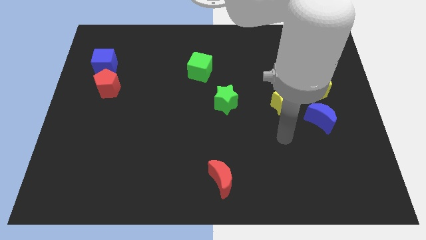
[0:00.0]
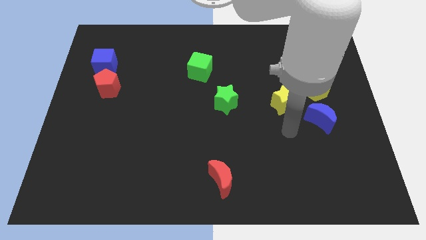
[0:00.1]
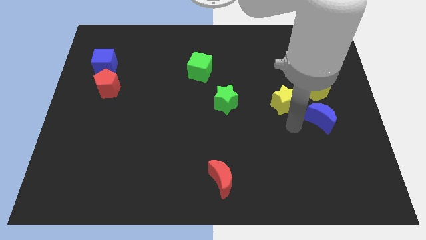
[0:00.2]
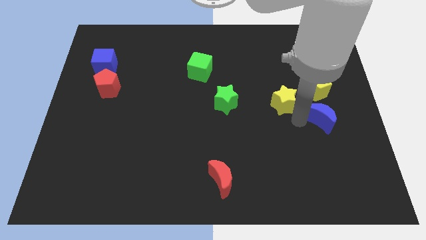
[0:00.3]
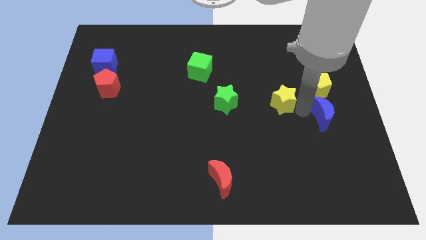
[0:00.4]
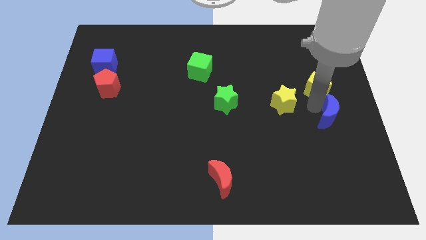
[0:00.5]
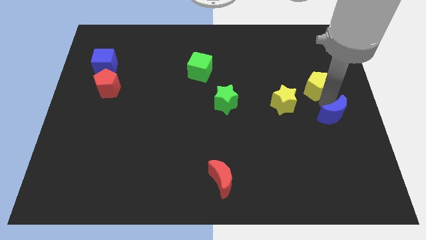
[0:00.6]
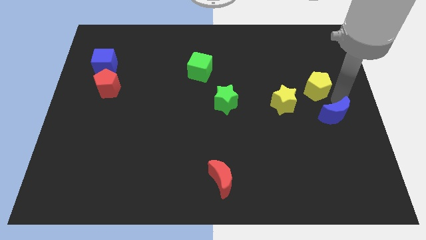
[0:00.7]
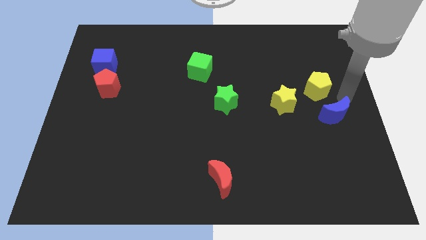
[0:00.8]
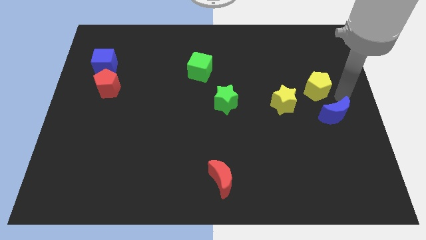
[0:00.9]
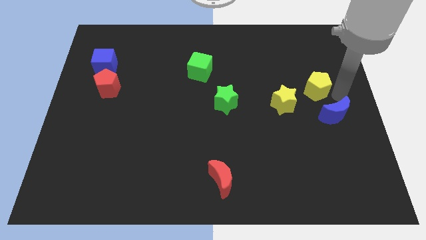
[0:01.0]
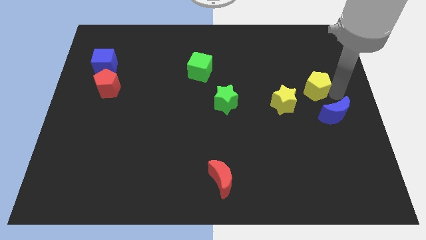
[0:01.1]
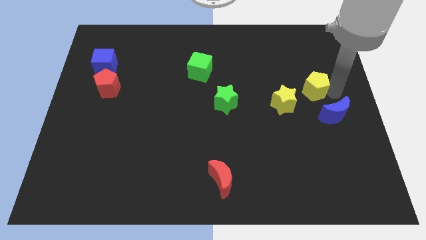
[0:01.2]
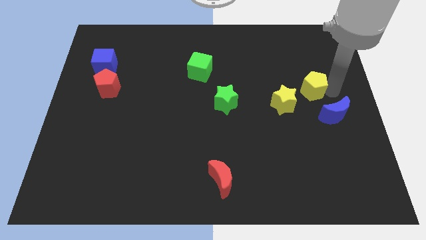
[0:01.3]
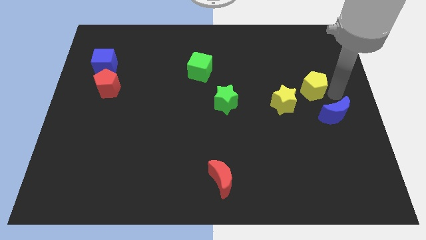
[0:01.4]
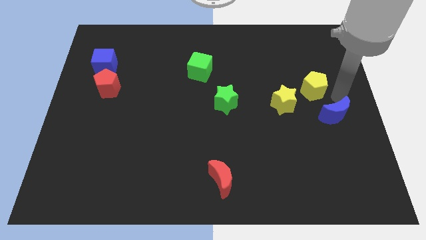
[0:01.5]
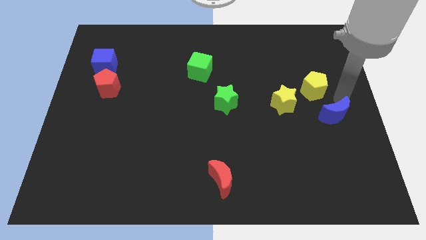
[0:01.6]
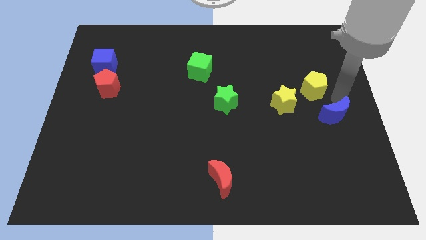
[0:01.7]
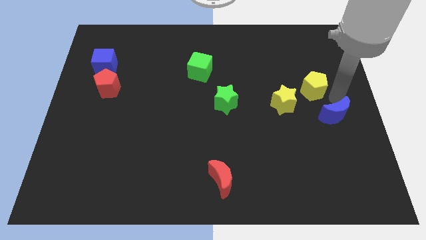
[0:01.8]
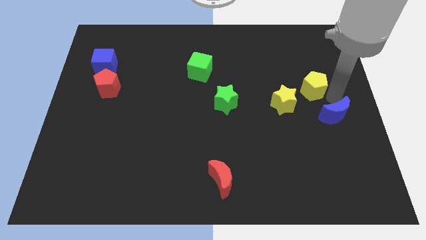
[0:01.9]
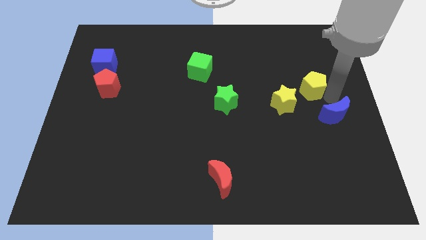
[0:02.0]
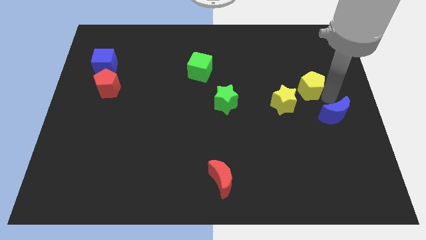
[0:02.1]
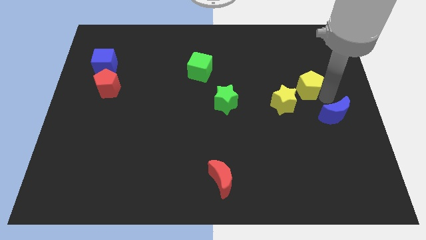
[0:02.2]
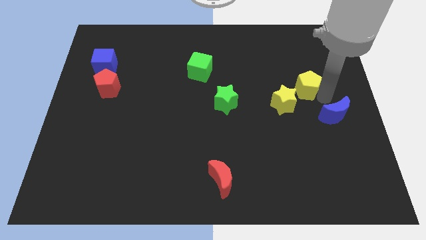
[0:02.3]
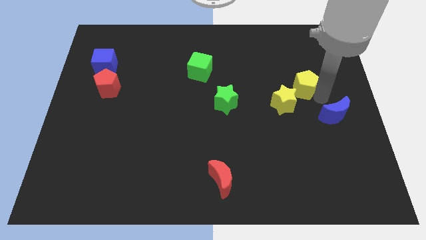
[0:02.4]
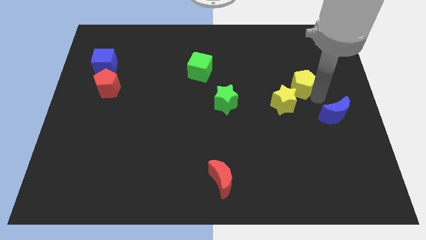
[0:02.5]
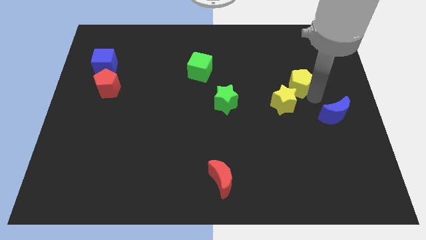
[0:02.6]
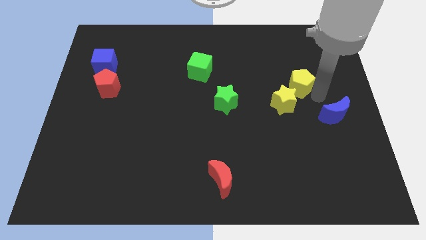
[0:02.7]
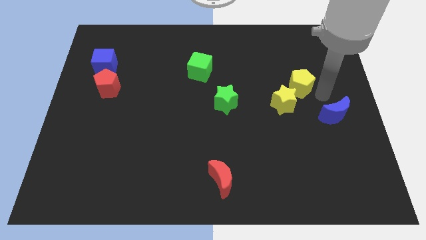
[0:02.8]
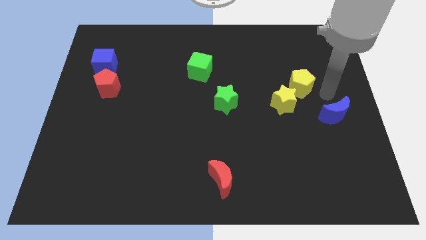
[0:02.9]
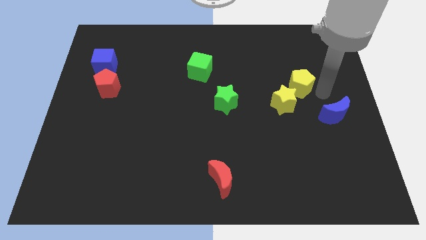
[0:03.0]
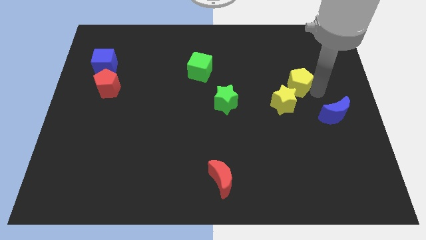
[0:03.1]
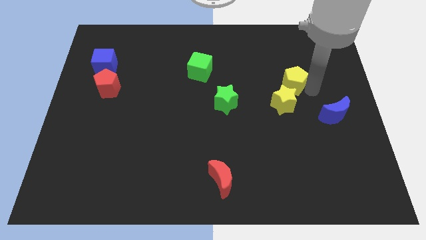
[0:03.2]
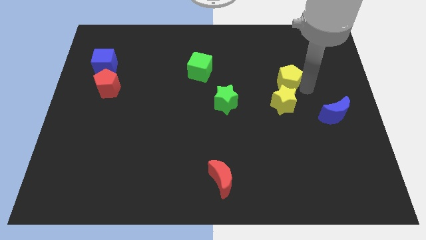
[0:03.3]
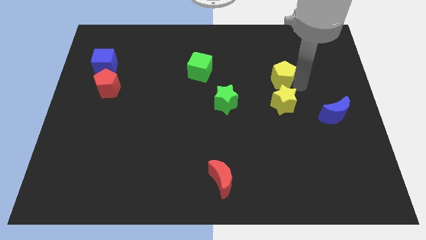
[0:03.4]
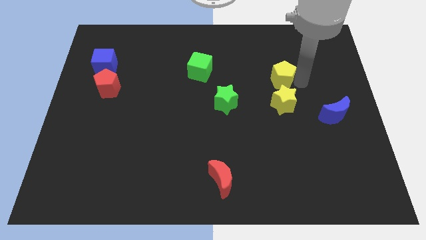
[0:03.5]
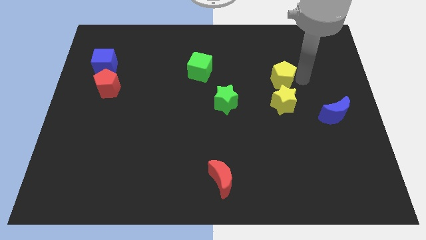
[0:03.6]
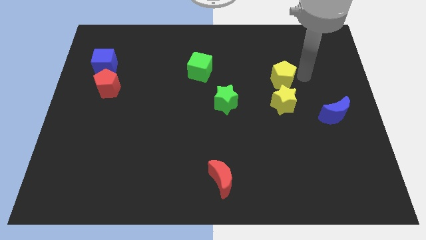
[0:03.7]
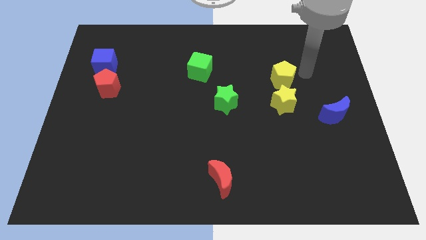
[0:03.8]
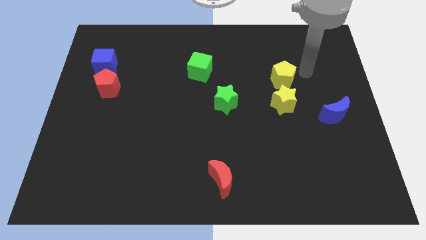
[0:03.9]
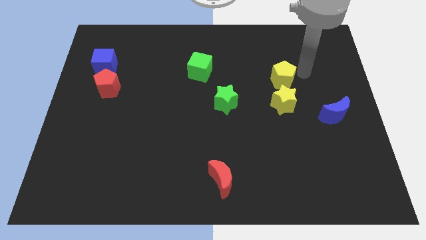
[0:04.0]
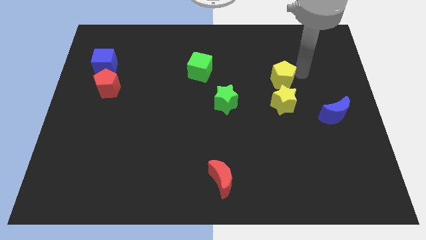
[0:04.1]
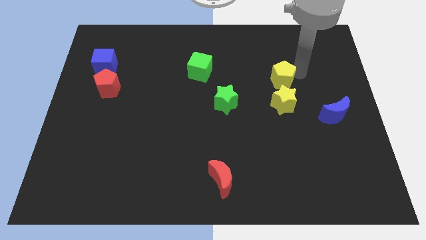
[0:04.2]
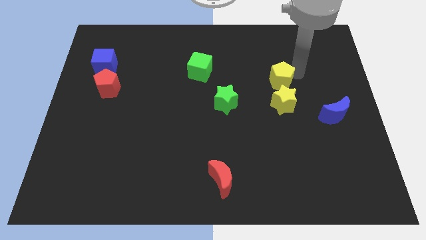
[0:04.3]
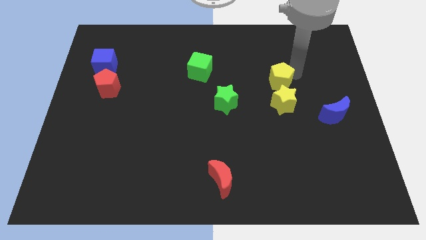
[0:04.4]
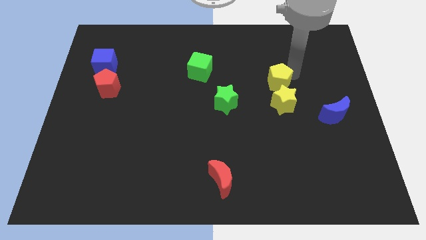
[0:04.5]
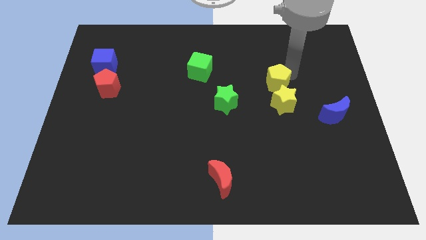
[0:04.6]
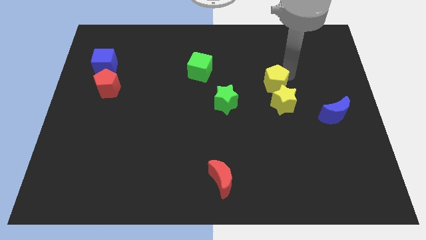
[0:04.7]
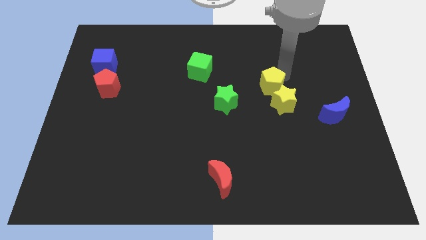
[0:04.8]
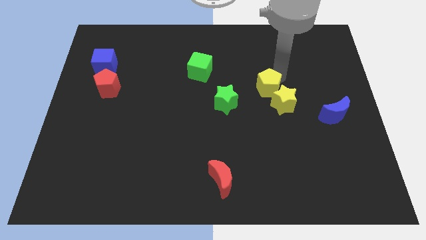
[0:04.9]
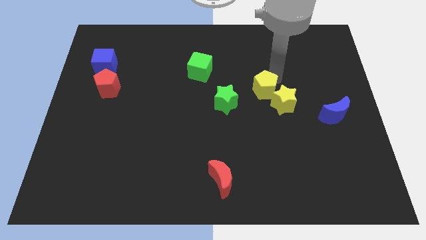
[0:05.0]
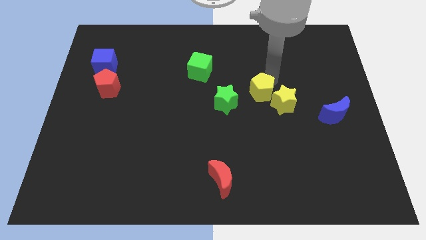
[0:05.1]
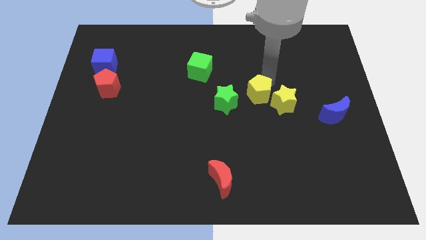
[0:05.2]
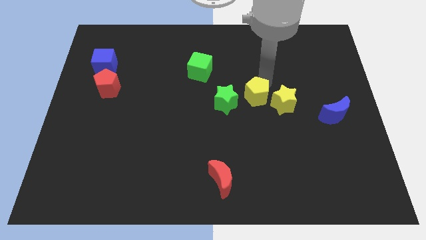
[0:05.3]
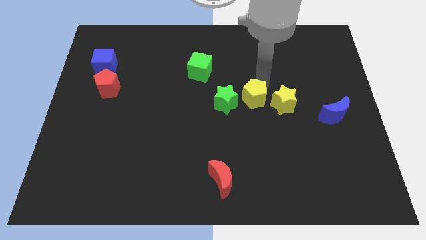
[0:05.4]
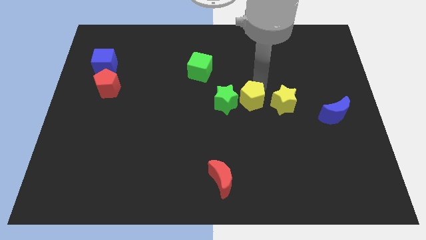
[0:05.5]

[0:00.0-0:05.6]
move the yellow pentagon next to the green star

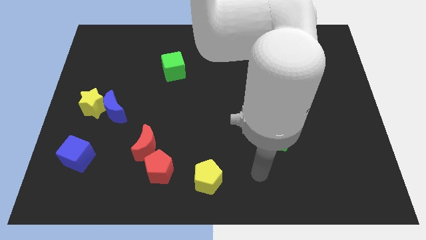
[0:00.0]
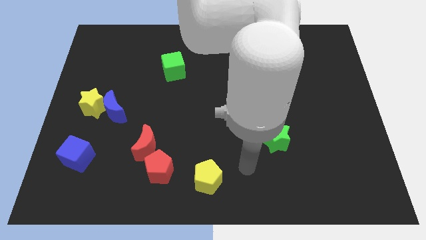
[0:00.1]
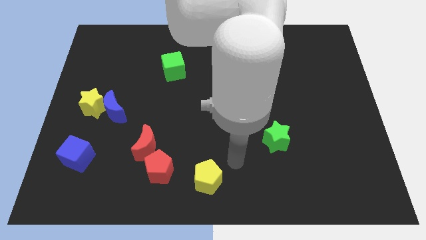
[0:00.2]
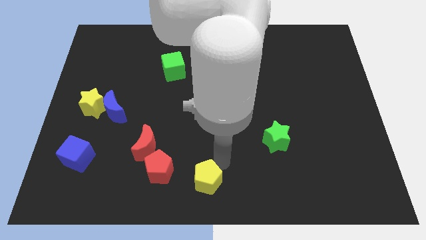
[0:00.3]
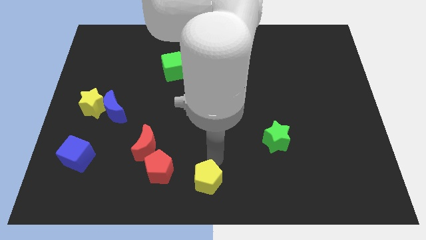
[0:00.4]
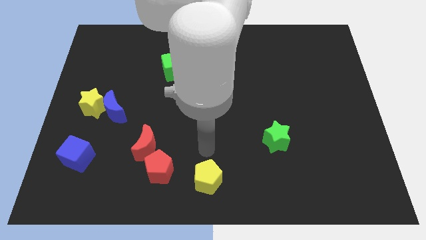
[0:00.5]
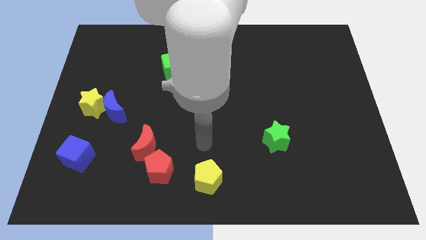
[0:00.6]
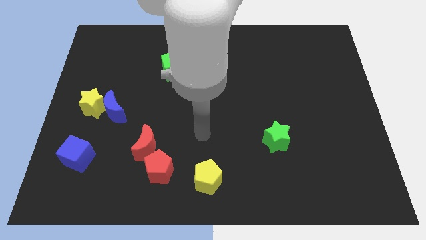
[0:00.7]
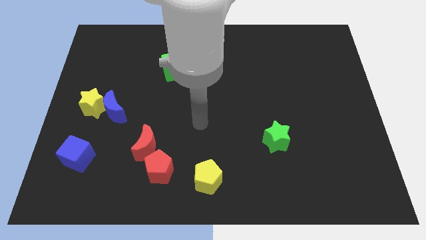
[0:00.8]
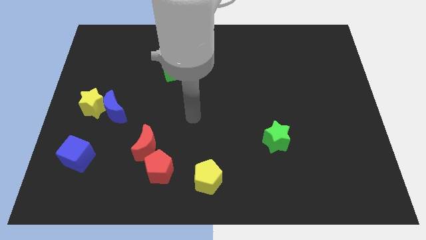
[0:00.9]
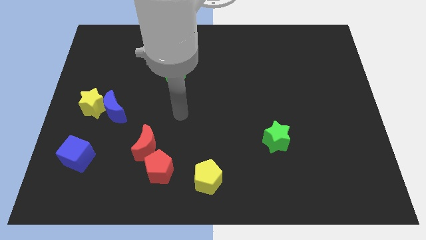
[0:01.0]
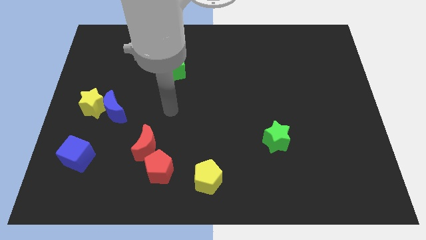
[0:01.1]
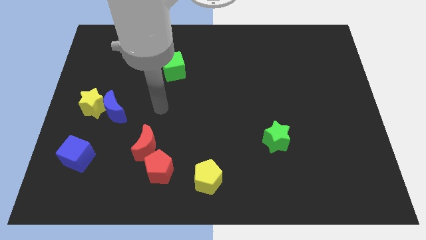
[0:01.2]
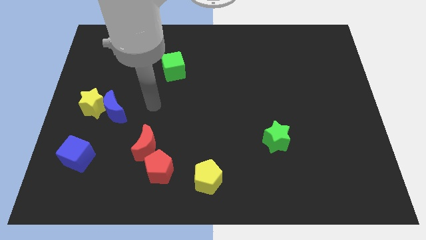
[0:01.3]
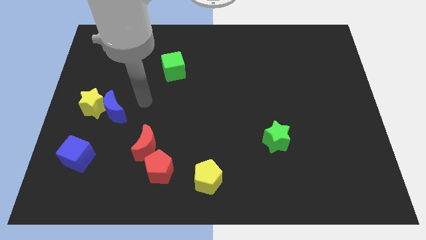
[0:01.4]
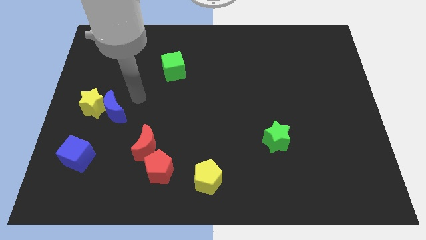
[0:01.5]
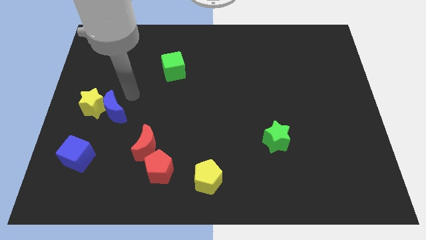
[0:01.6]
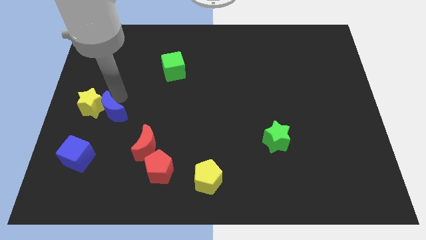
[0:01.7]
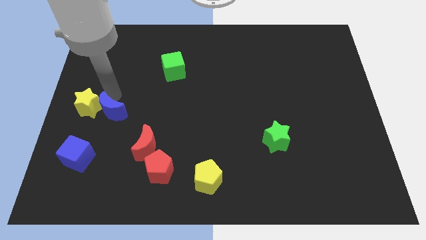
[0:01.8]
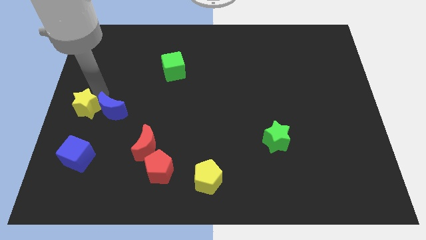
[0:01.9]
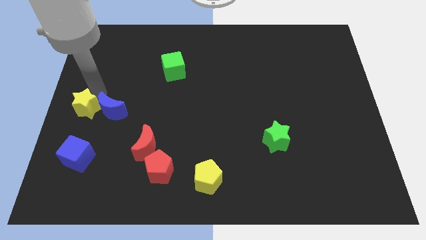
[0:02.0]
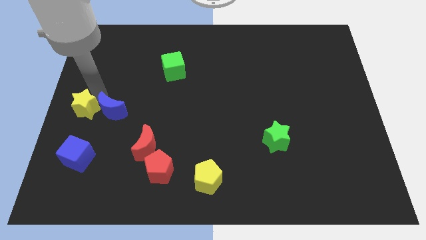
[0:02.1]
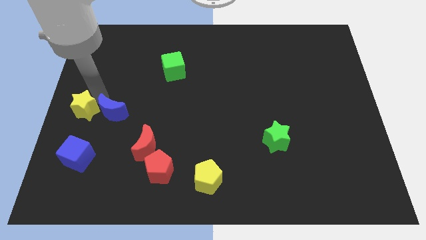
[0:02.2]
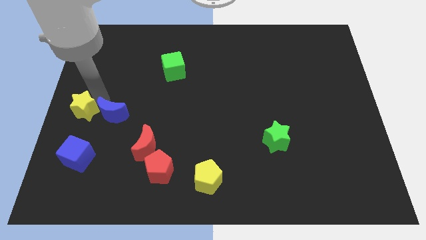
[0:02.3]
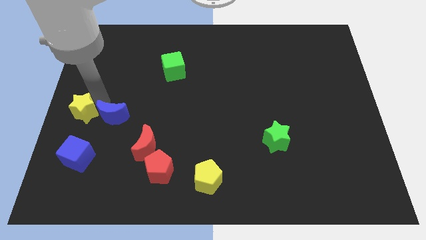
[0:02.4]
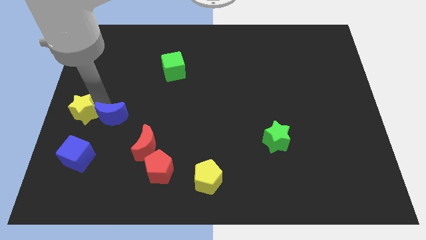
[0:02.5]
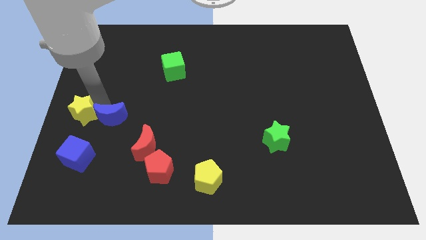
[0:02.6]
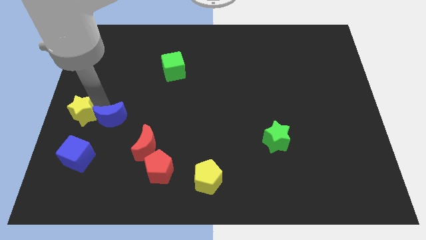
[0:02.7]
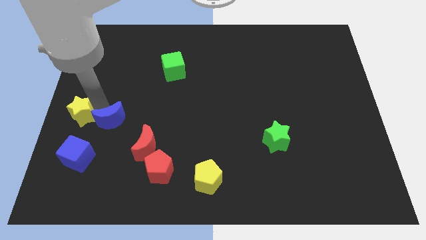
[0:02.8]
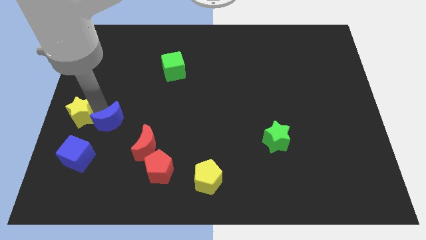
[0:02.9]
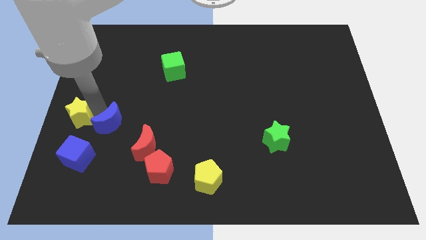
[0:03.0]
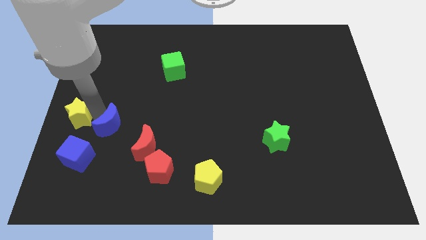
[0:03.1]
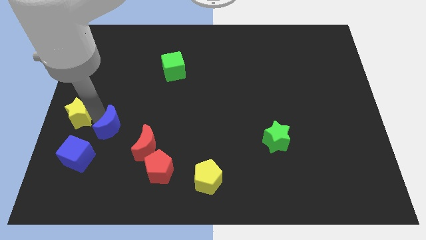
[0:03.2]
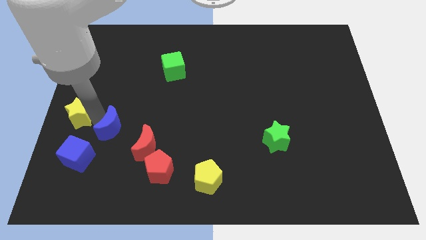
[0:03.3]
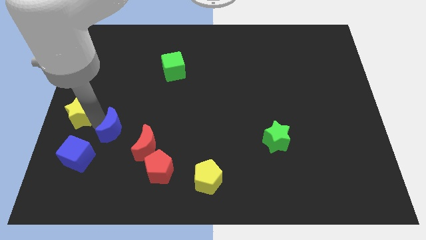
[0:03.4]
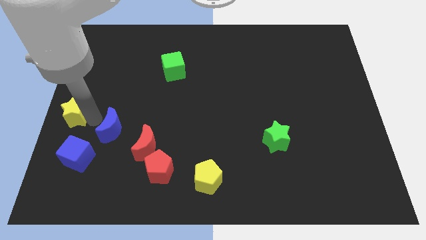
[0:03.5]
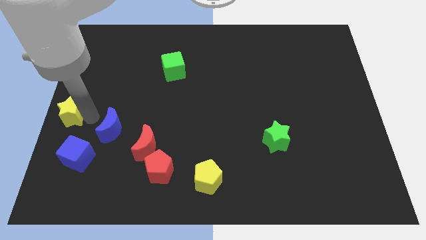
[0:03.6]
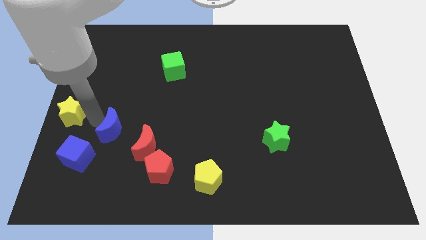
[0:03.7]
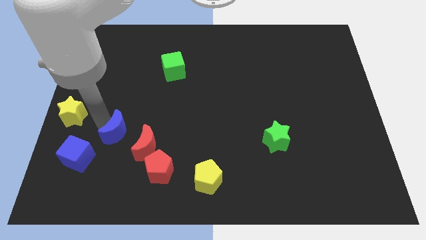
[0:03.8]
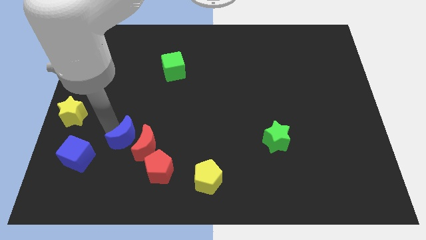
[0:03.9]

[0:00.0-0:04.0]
slide the blue moon to the red moon
